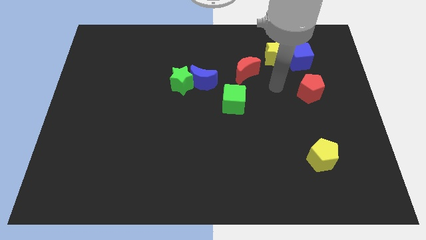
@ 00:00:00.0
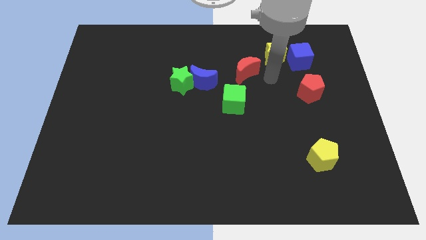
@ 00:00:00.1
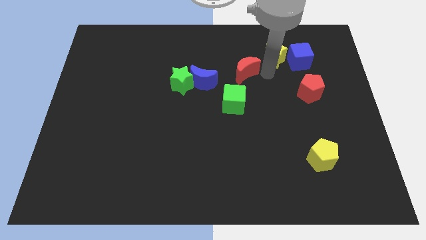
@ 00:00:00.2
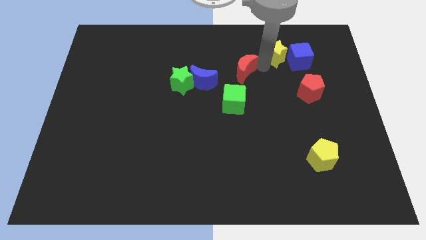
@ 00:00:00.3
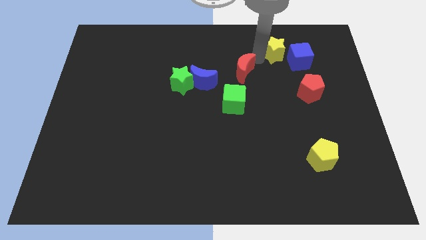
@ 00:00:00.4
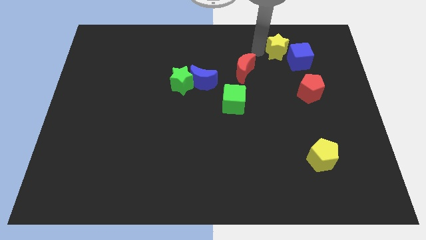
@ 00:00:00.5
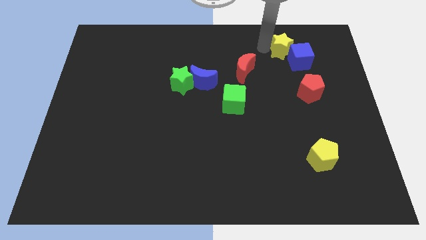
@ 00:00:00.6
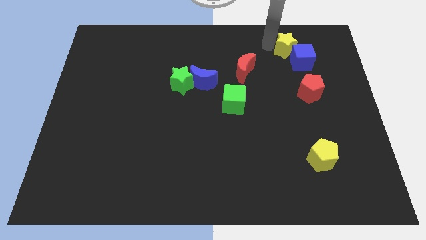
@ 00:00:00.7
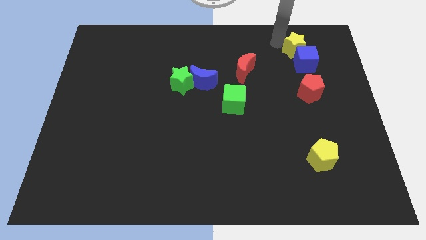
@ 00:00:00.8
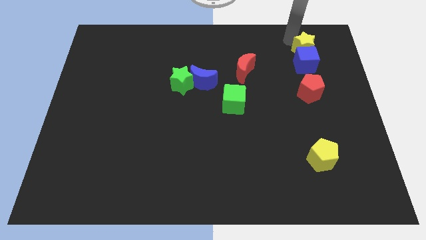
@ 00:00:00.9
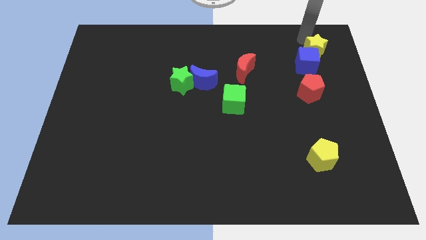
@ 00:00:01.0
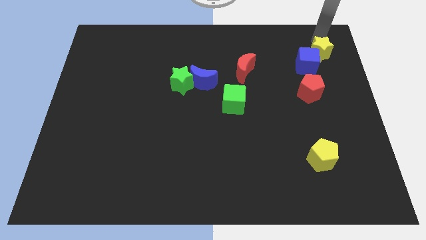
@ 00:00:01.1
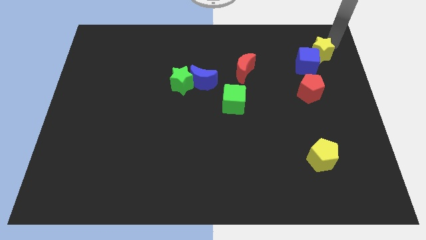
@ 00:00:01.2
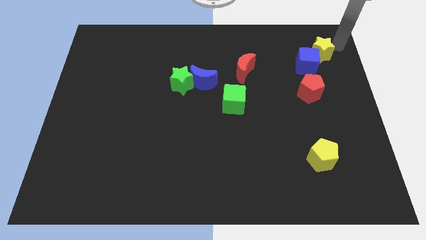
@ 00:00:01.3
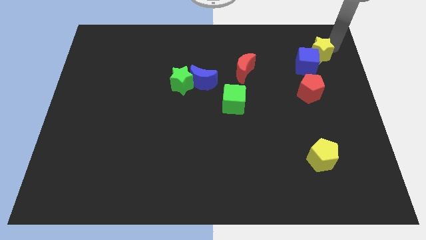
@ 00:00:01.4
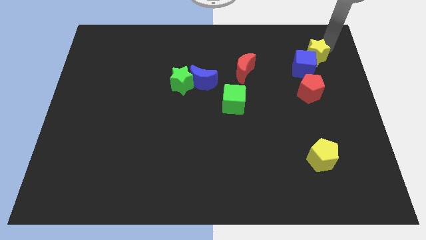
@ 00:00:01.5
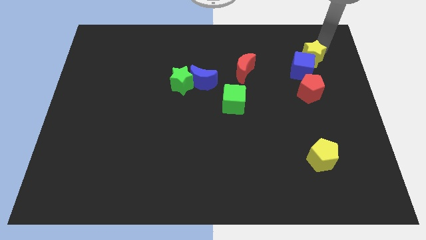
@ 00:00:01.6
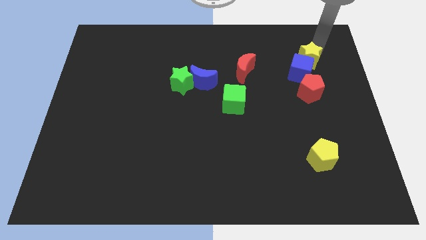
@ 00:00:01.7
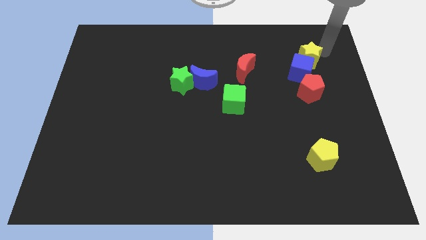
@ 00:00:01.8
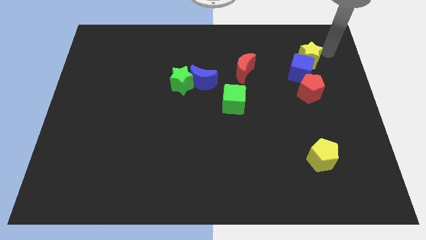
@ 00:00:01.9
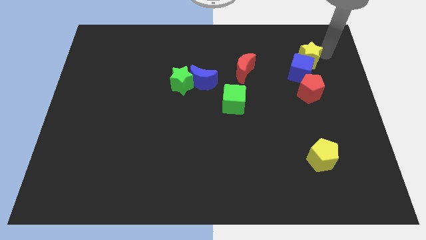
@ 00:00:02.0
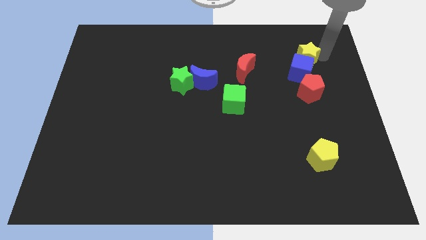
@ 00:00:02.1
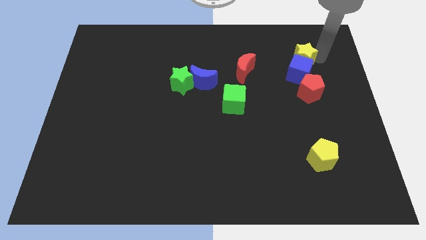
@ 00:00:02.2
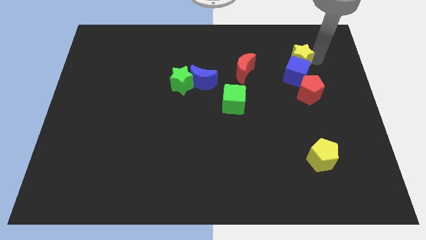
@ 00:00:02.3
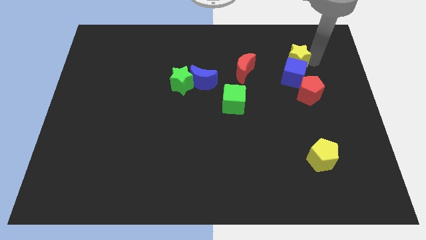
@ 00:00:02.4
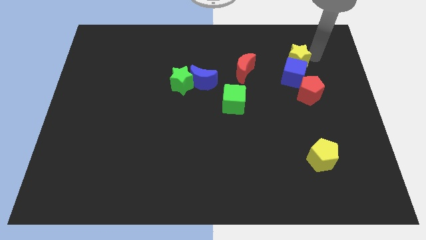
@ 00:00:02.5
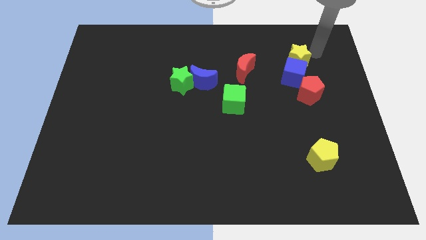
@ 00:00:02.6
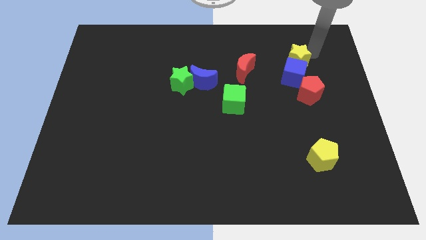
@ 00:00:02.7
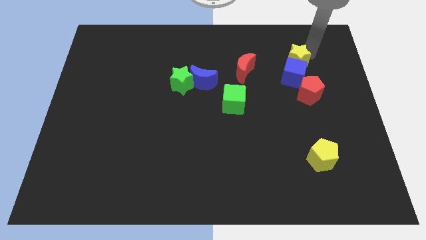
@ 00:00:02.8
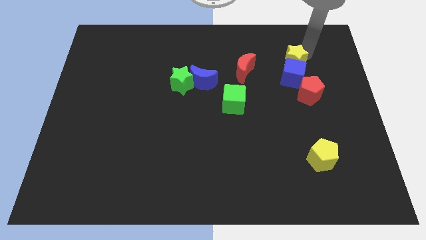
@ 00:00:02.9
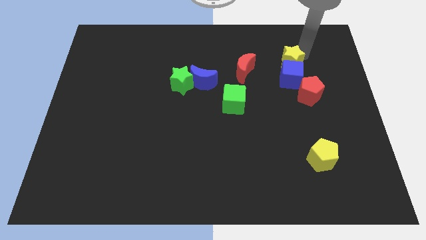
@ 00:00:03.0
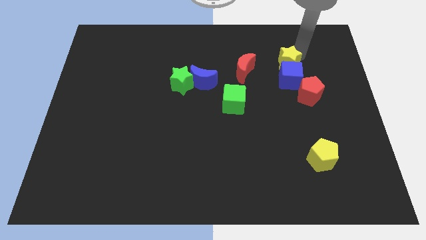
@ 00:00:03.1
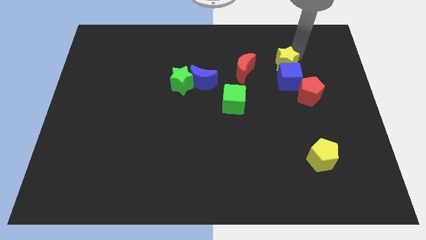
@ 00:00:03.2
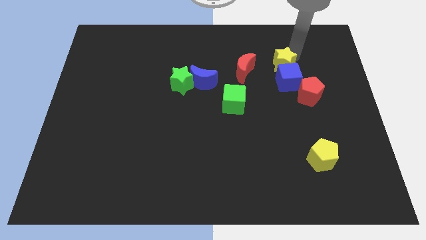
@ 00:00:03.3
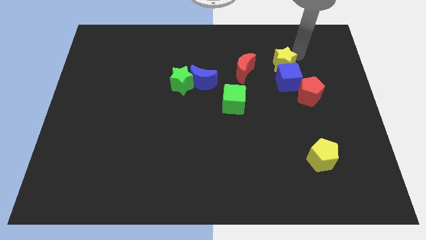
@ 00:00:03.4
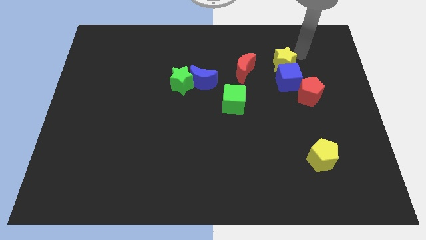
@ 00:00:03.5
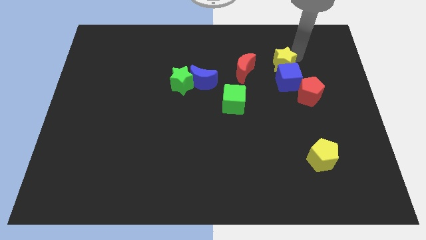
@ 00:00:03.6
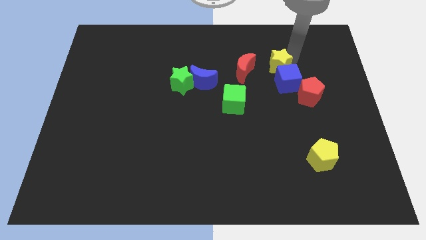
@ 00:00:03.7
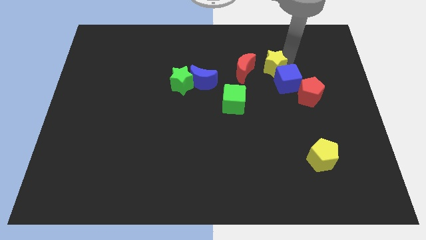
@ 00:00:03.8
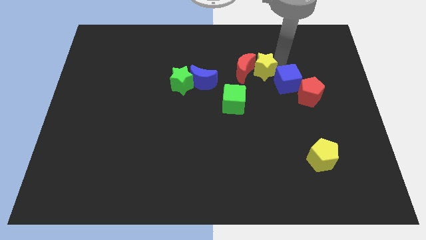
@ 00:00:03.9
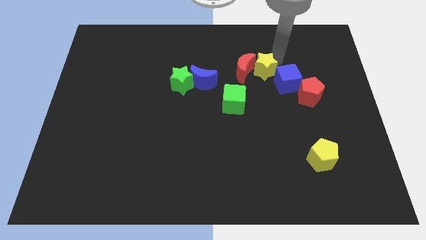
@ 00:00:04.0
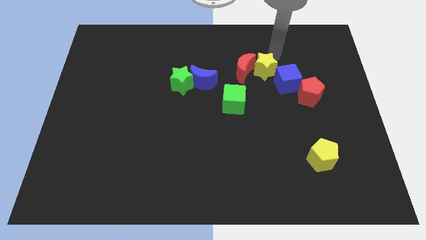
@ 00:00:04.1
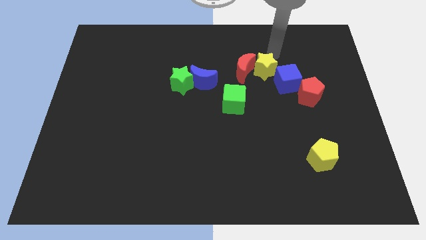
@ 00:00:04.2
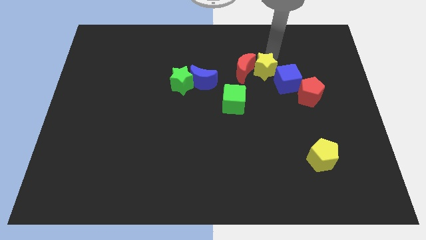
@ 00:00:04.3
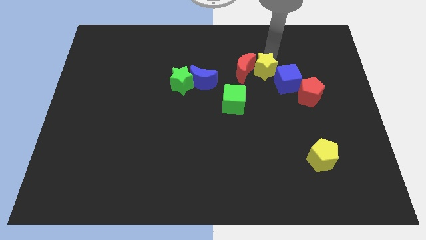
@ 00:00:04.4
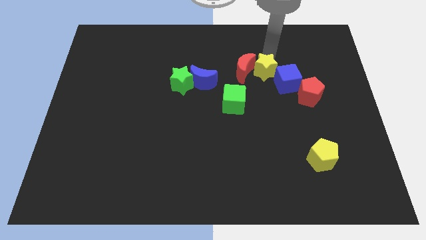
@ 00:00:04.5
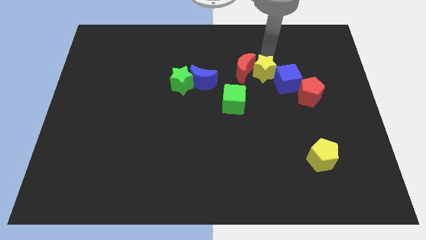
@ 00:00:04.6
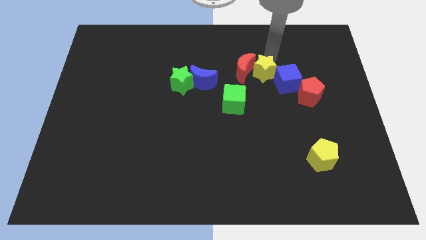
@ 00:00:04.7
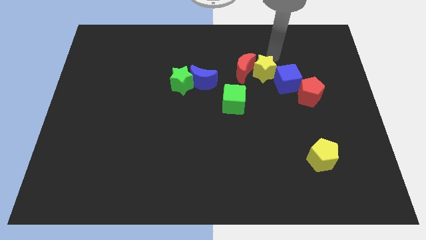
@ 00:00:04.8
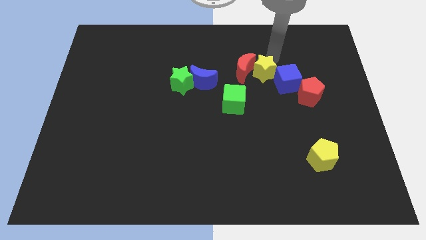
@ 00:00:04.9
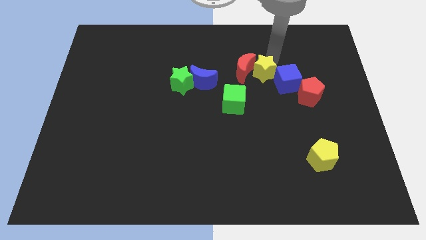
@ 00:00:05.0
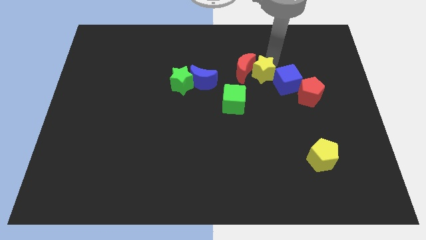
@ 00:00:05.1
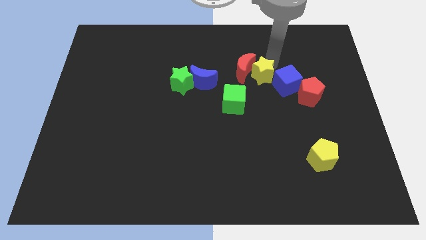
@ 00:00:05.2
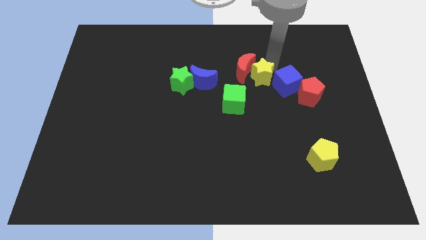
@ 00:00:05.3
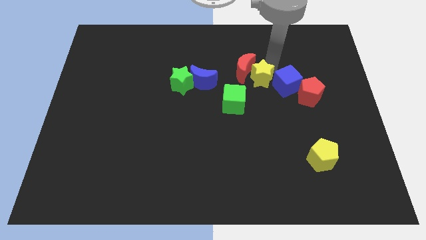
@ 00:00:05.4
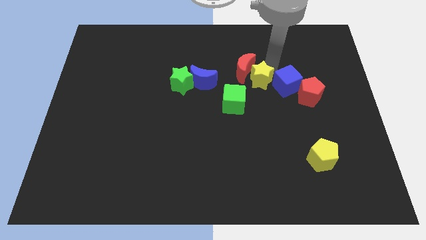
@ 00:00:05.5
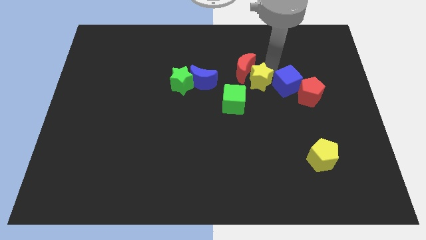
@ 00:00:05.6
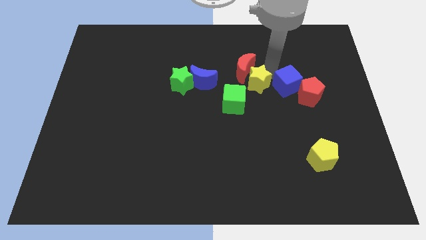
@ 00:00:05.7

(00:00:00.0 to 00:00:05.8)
move the yellow star to the center
